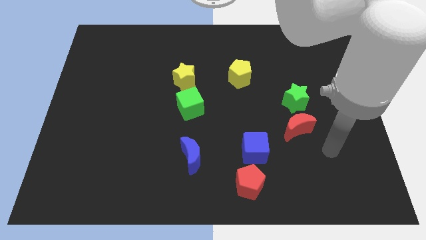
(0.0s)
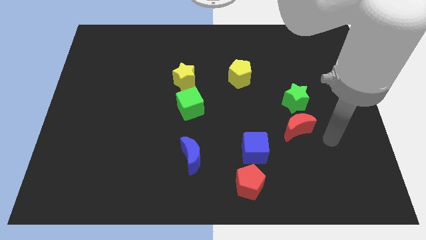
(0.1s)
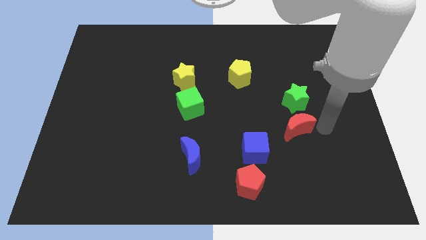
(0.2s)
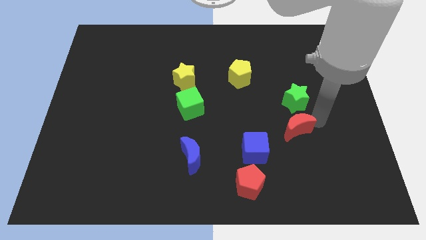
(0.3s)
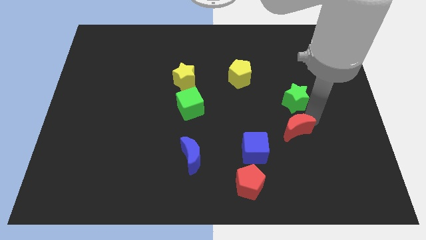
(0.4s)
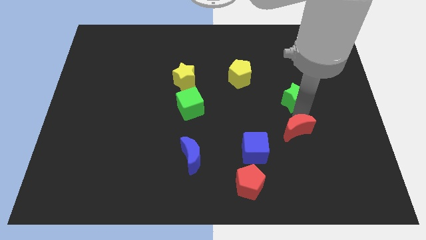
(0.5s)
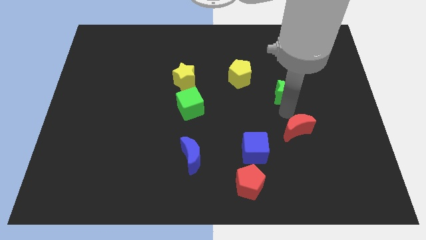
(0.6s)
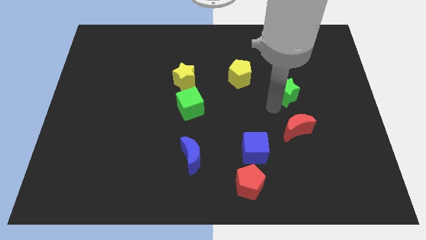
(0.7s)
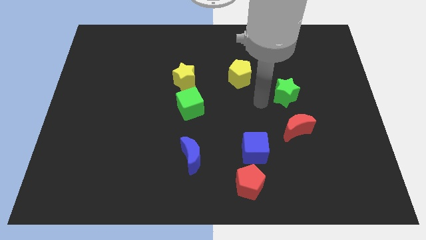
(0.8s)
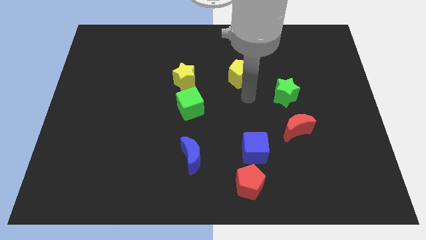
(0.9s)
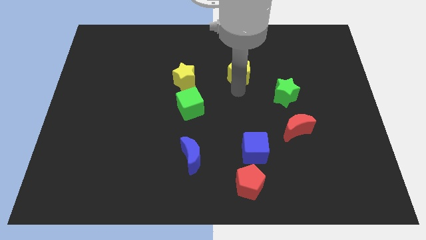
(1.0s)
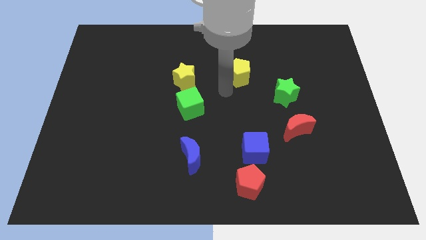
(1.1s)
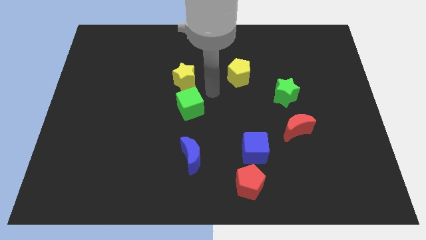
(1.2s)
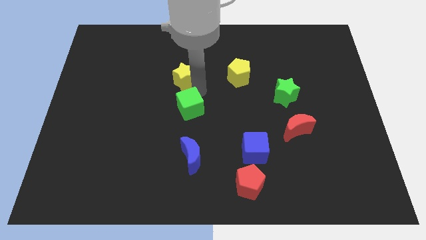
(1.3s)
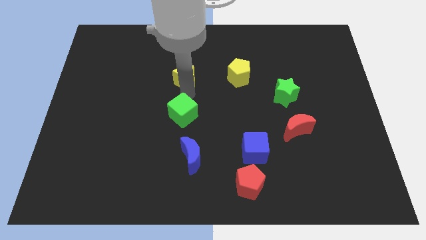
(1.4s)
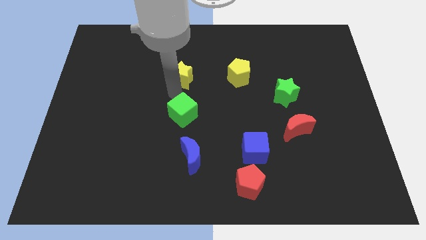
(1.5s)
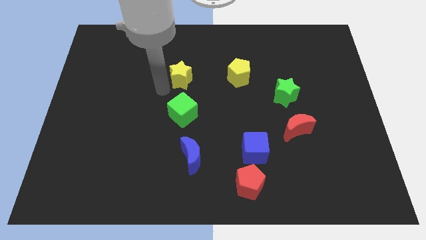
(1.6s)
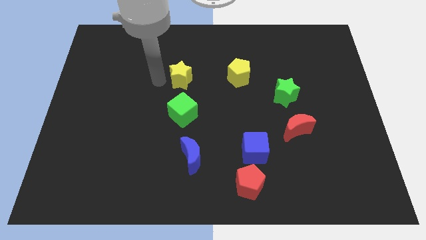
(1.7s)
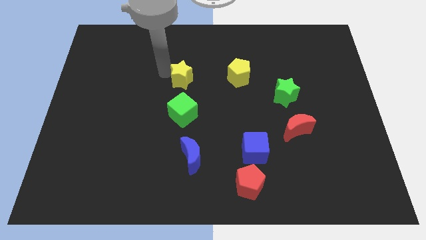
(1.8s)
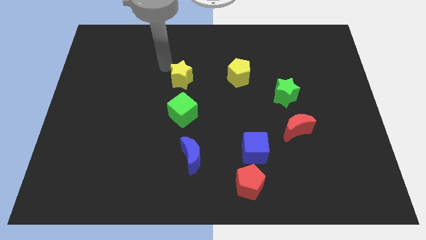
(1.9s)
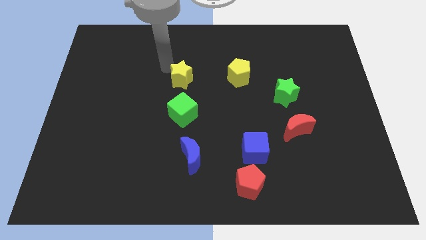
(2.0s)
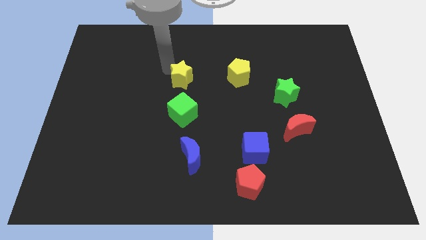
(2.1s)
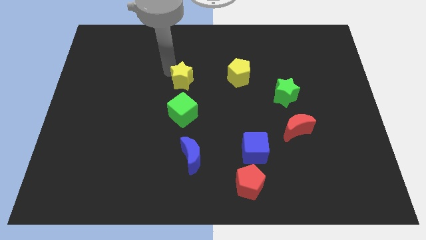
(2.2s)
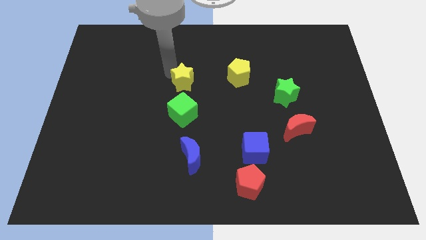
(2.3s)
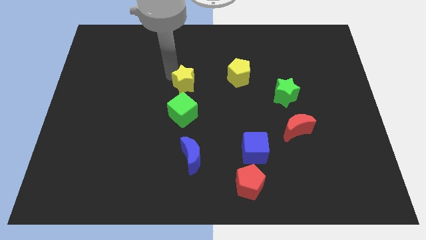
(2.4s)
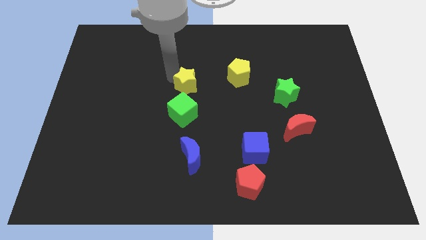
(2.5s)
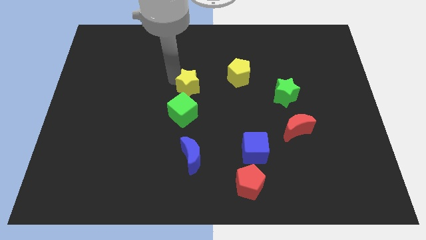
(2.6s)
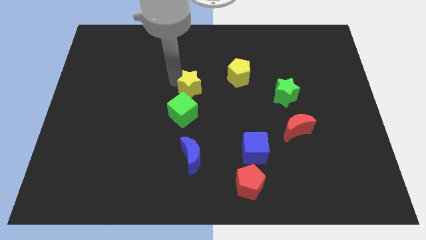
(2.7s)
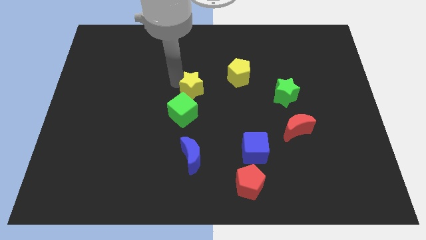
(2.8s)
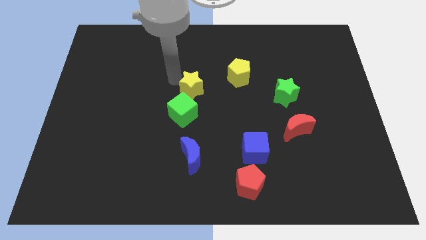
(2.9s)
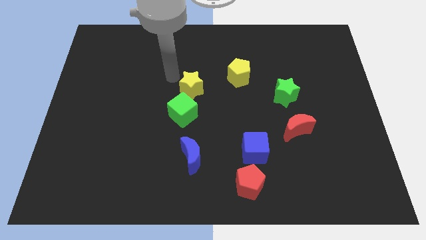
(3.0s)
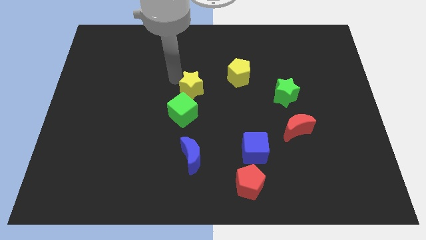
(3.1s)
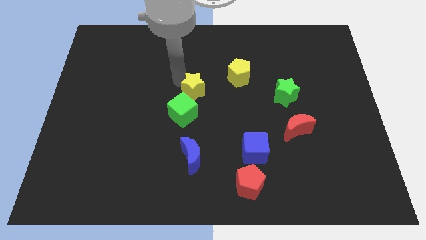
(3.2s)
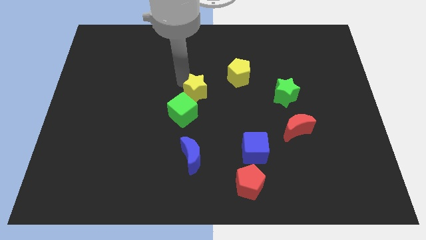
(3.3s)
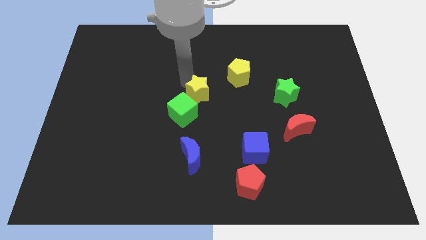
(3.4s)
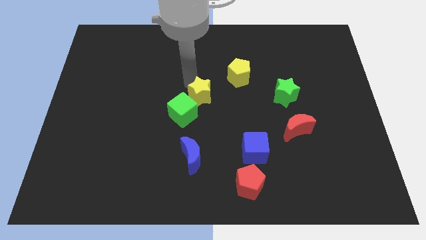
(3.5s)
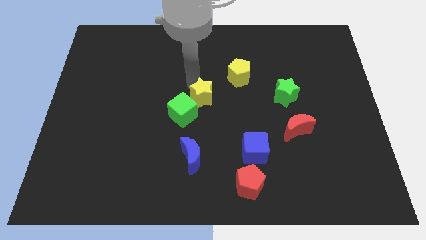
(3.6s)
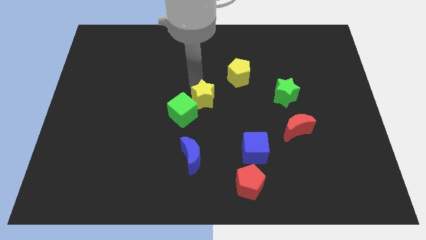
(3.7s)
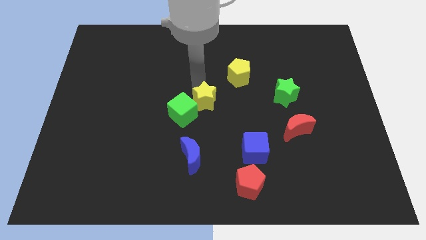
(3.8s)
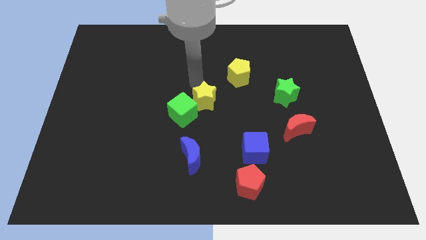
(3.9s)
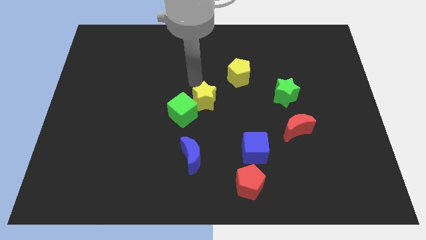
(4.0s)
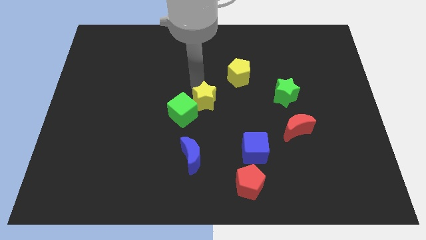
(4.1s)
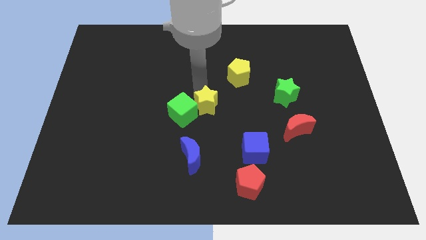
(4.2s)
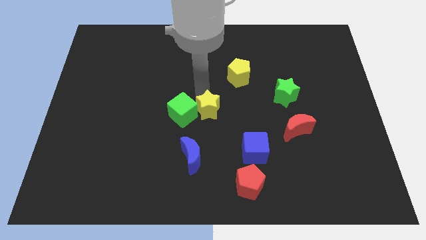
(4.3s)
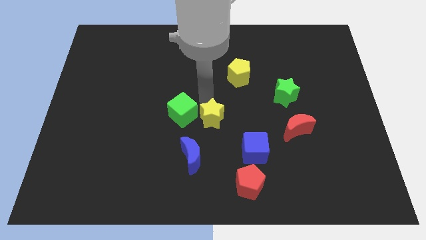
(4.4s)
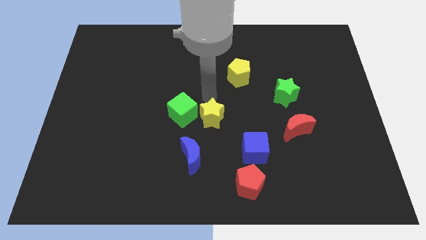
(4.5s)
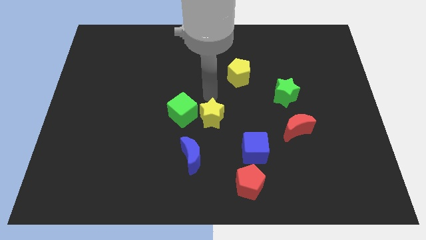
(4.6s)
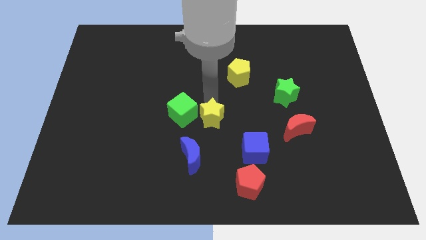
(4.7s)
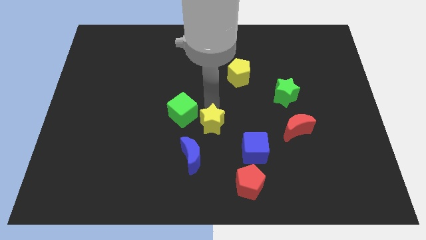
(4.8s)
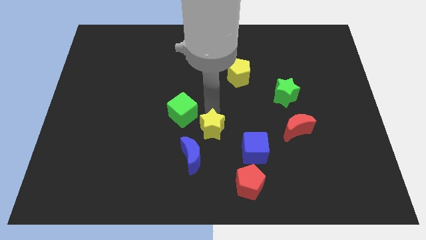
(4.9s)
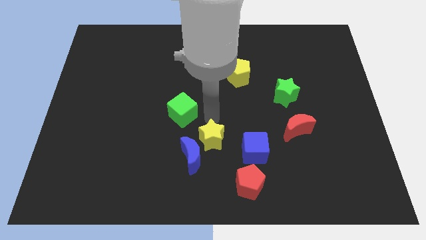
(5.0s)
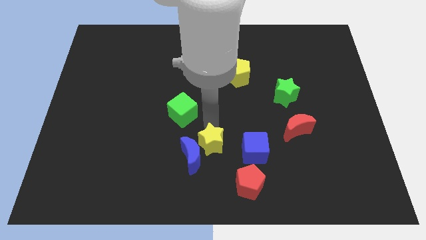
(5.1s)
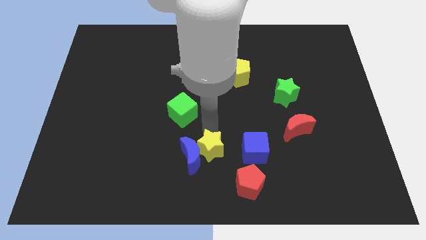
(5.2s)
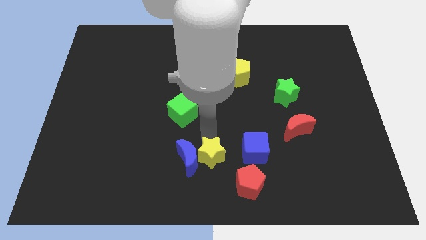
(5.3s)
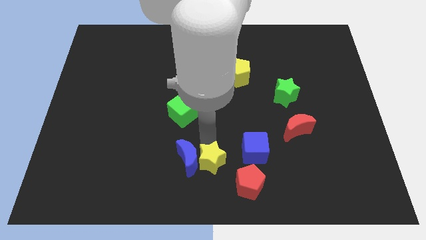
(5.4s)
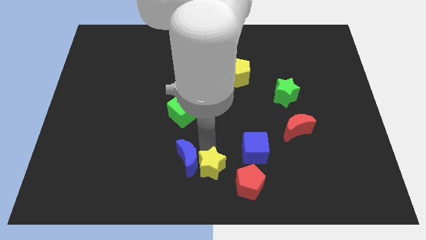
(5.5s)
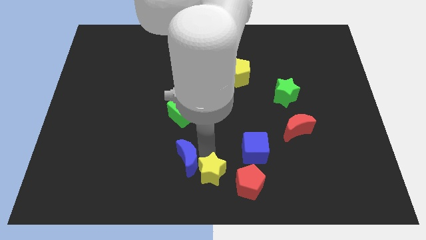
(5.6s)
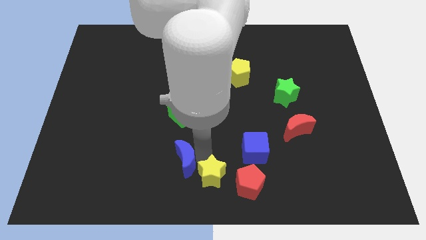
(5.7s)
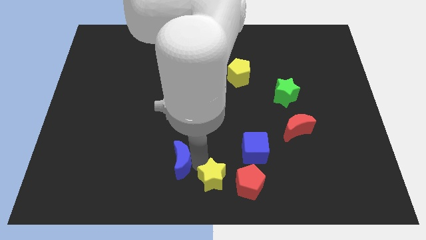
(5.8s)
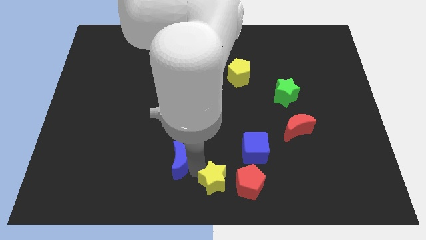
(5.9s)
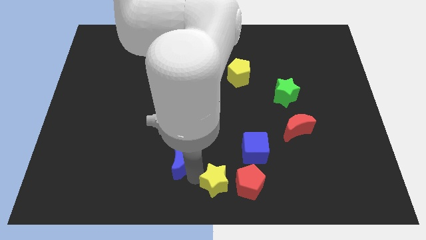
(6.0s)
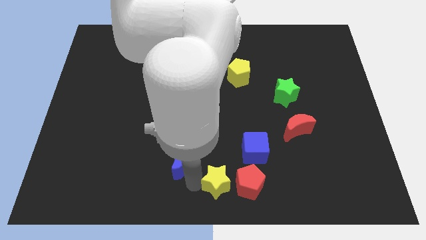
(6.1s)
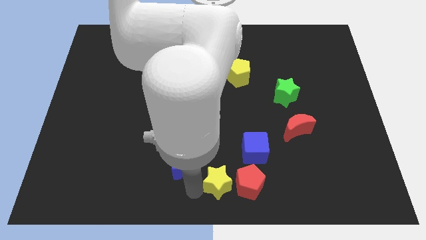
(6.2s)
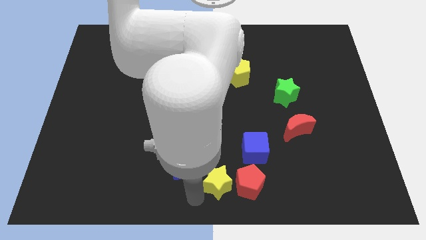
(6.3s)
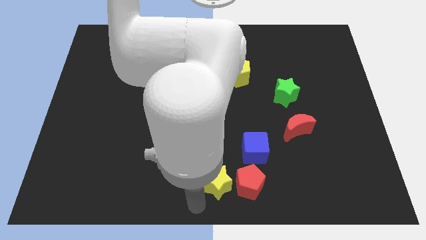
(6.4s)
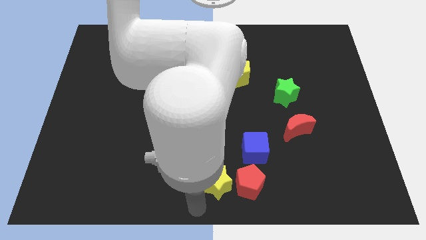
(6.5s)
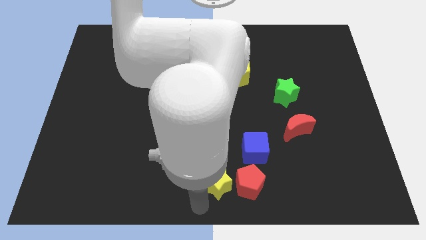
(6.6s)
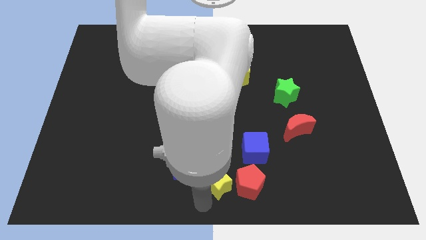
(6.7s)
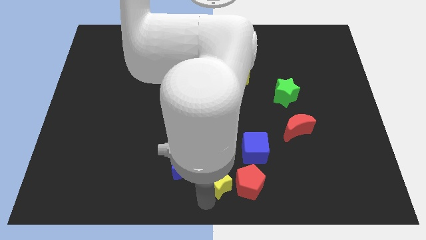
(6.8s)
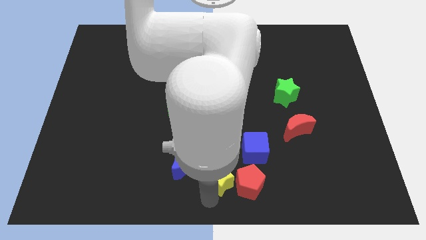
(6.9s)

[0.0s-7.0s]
move the yellow star next to the red pentagon
